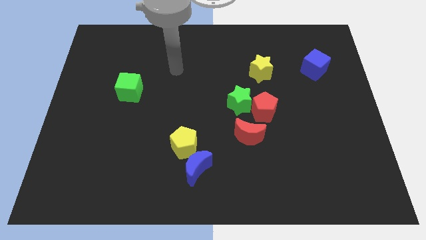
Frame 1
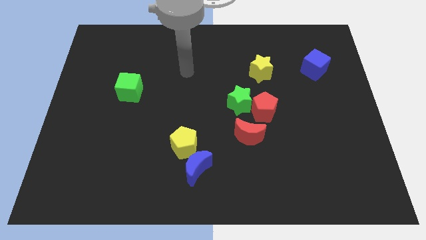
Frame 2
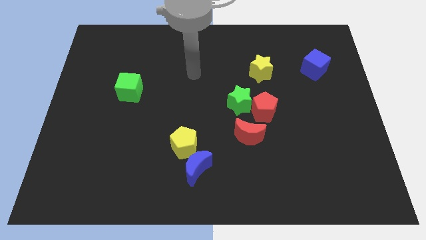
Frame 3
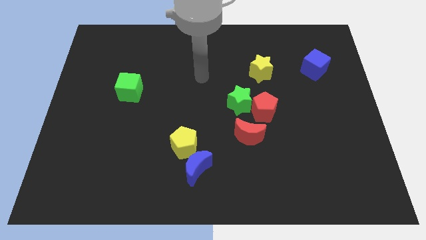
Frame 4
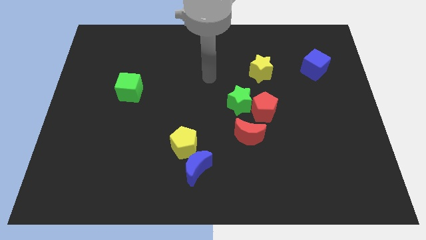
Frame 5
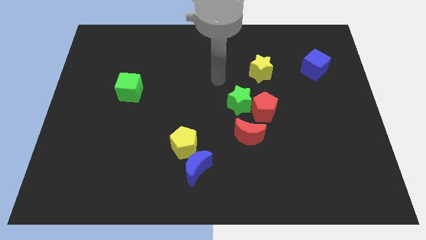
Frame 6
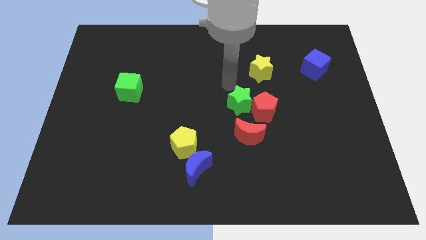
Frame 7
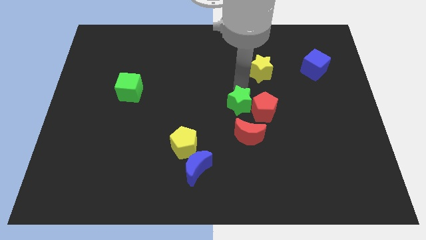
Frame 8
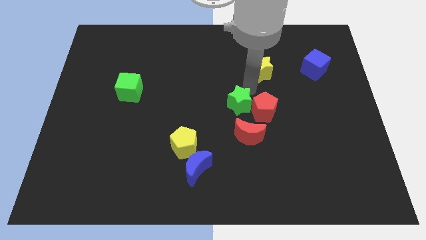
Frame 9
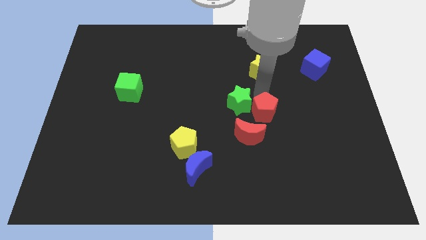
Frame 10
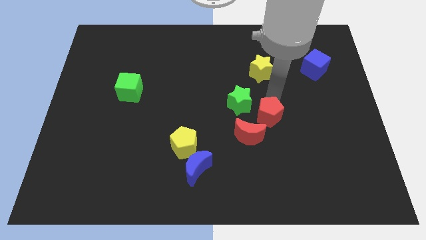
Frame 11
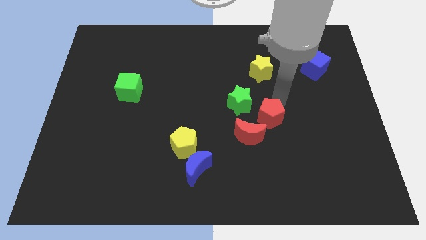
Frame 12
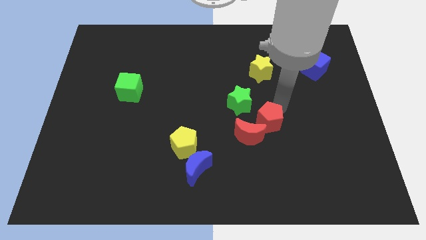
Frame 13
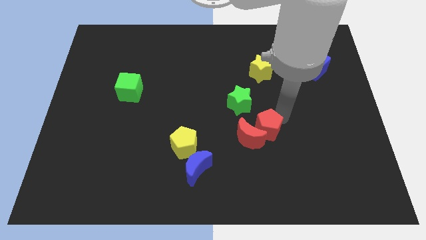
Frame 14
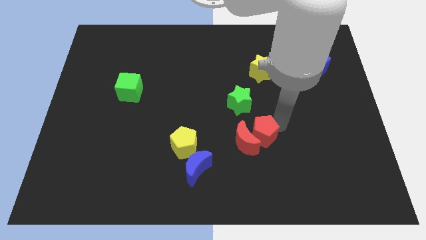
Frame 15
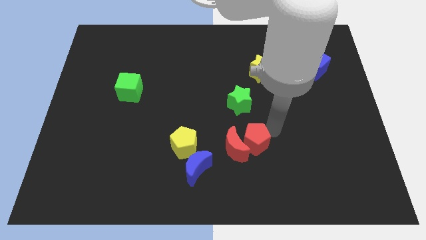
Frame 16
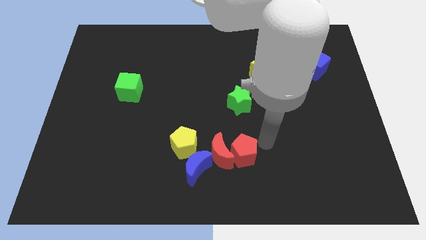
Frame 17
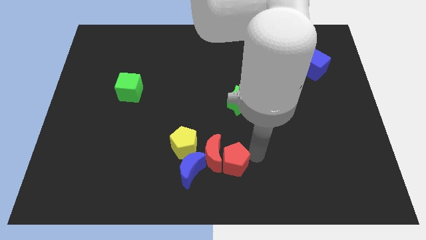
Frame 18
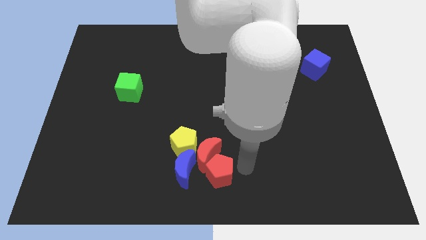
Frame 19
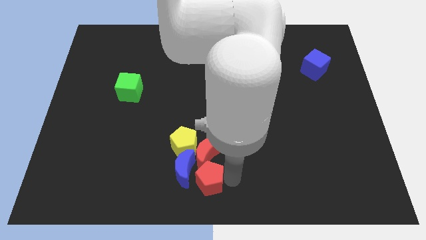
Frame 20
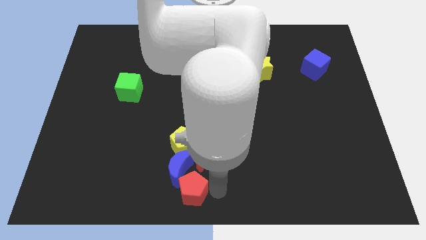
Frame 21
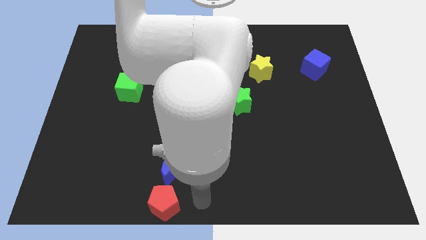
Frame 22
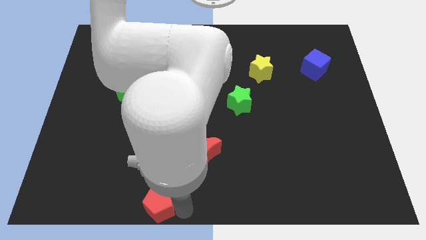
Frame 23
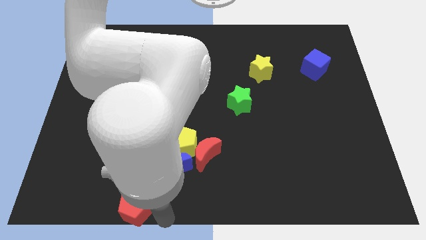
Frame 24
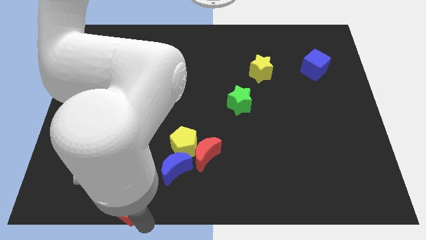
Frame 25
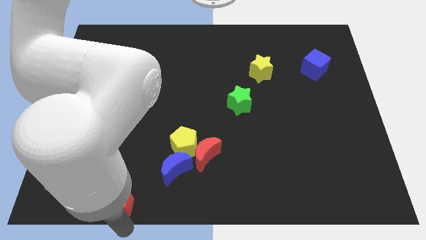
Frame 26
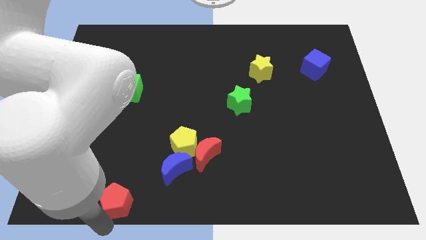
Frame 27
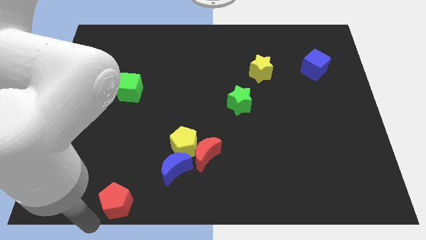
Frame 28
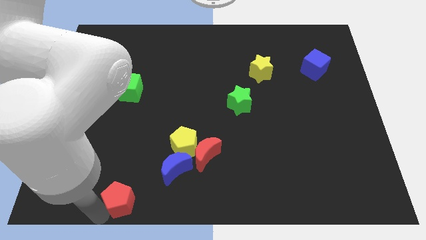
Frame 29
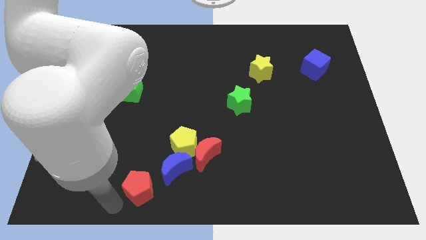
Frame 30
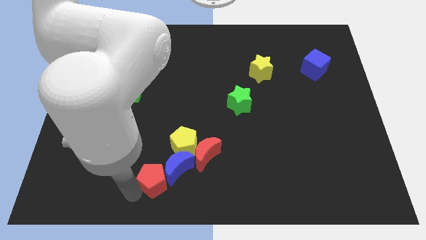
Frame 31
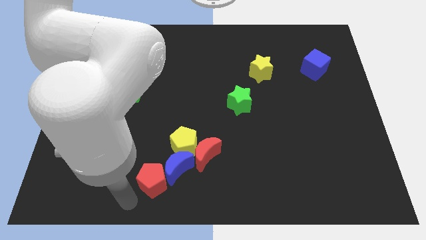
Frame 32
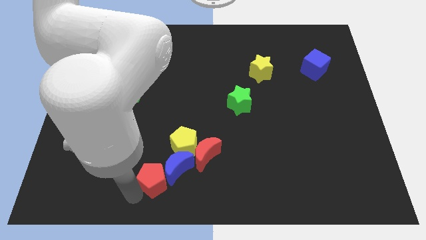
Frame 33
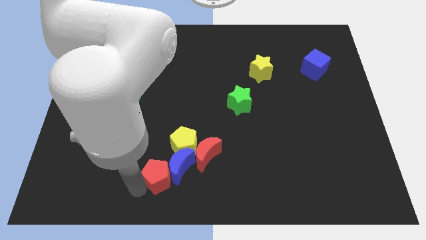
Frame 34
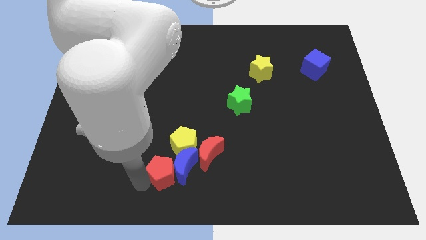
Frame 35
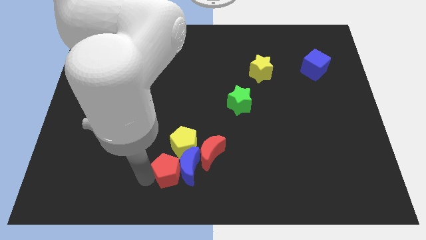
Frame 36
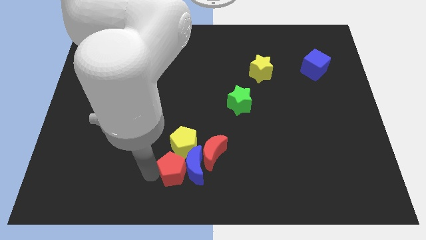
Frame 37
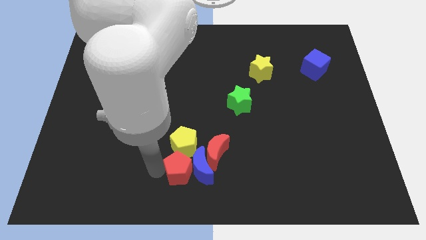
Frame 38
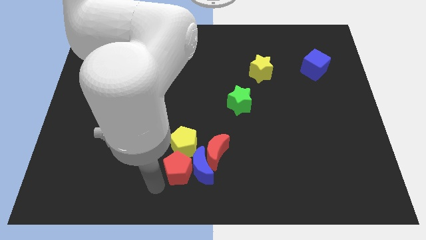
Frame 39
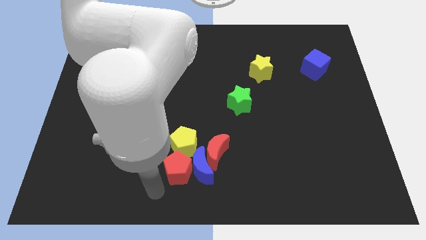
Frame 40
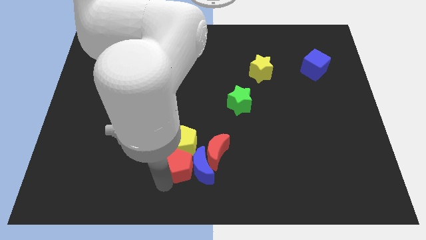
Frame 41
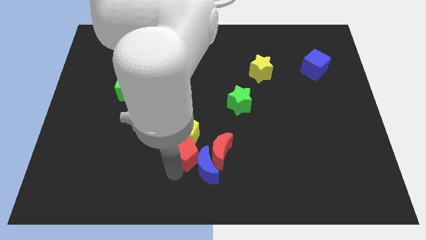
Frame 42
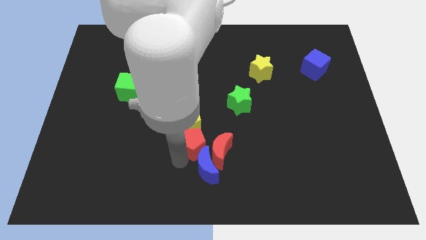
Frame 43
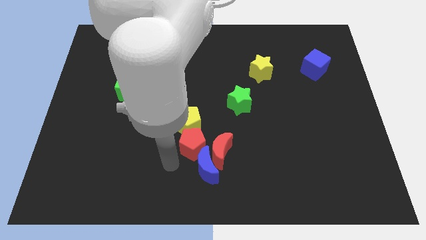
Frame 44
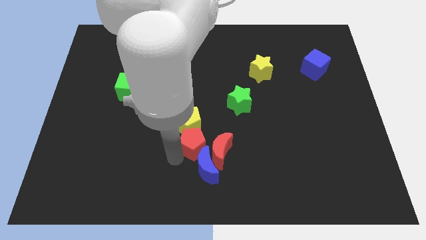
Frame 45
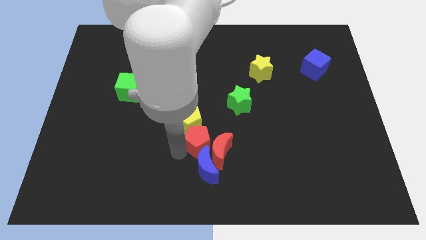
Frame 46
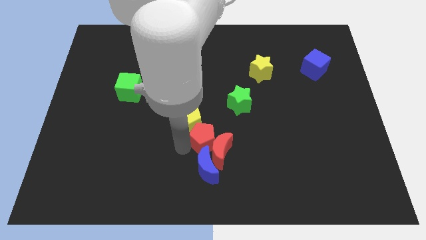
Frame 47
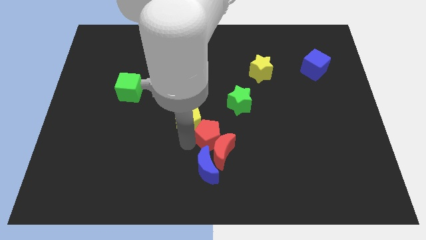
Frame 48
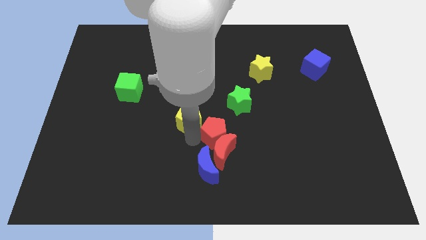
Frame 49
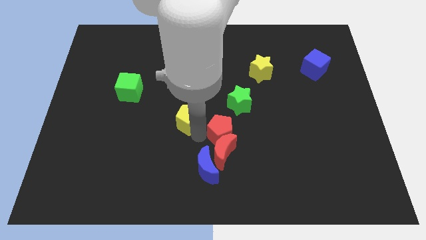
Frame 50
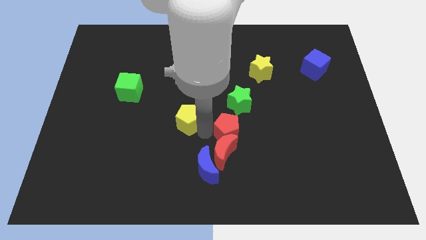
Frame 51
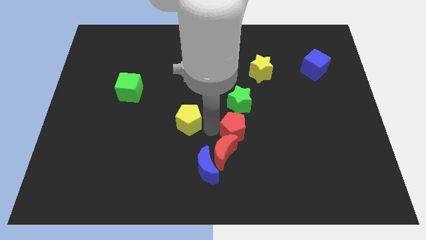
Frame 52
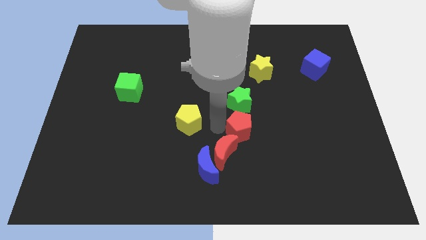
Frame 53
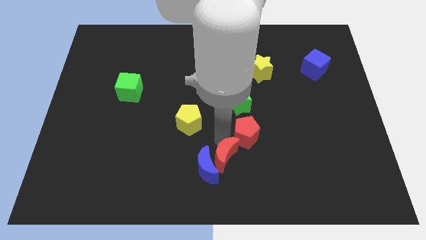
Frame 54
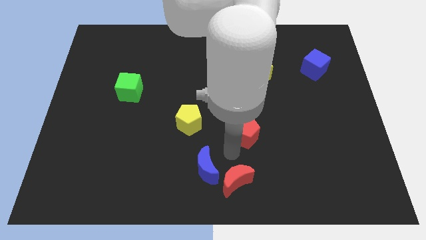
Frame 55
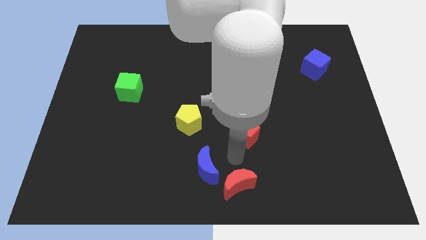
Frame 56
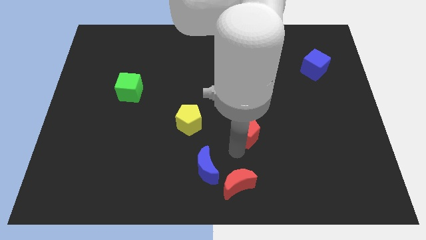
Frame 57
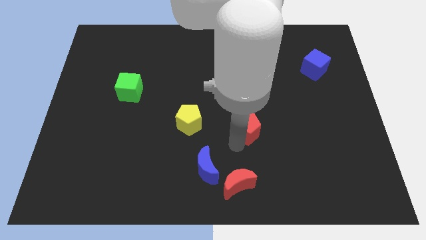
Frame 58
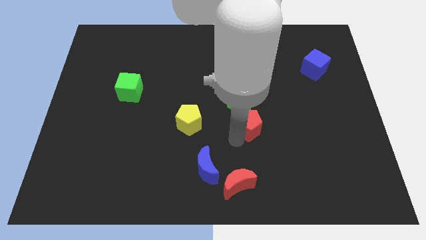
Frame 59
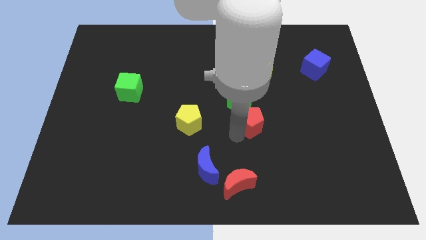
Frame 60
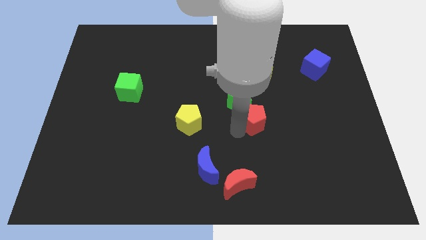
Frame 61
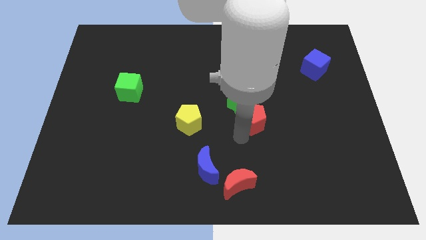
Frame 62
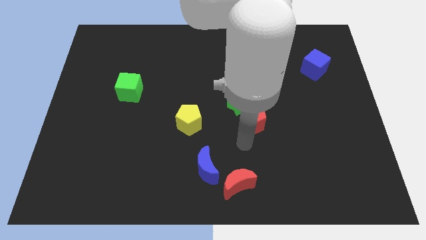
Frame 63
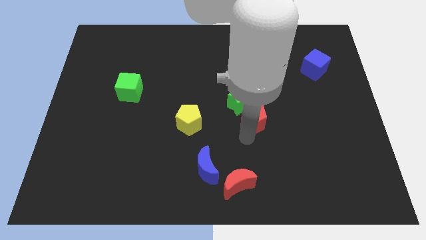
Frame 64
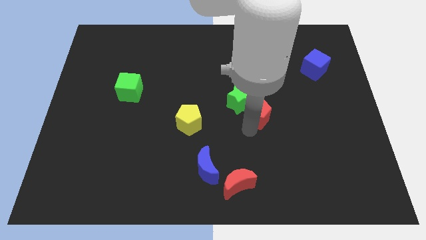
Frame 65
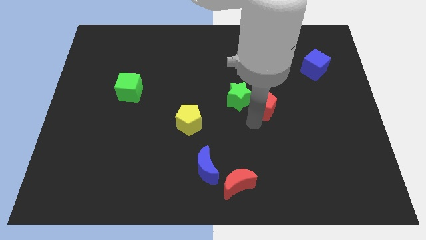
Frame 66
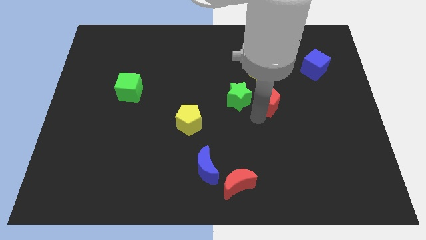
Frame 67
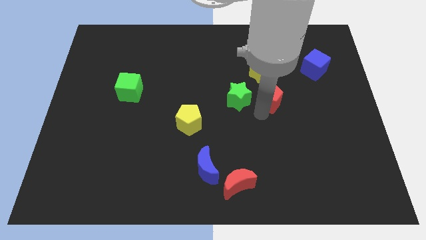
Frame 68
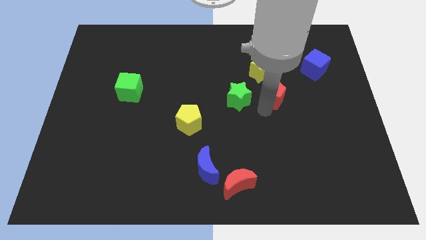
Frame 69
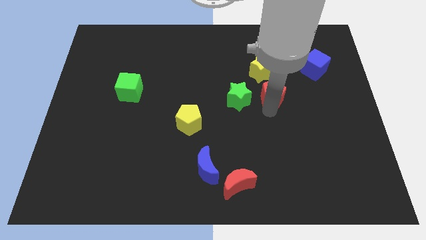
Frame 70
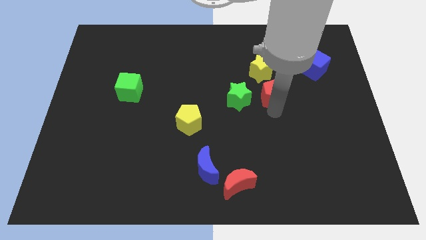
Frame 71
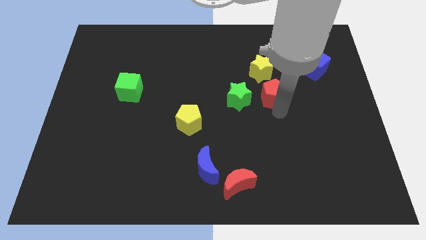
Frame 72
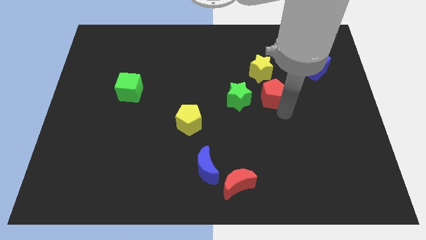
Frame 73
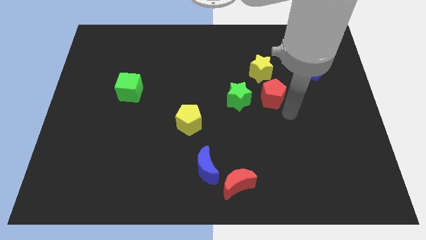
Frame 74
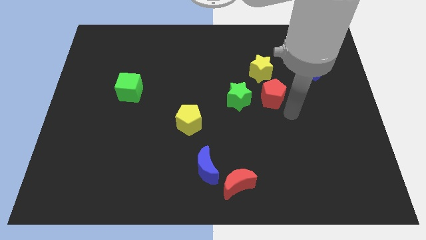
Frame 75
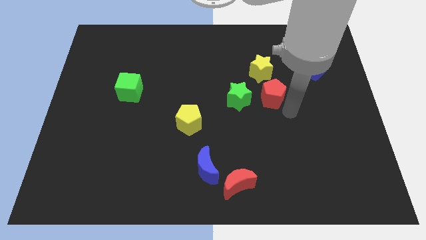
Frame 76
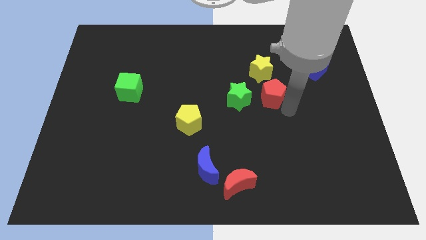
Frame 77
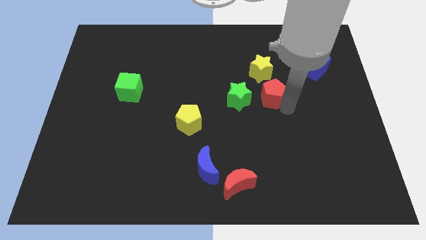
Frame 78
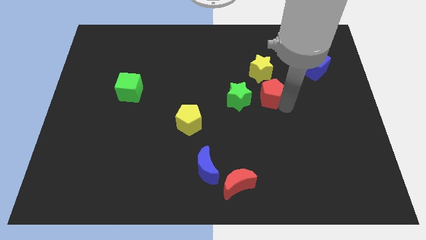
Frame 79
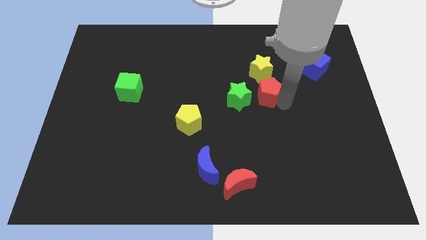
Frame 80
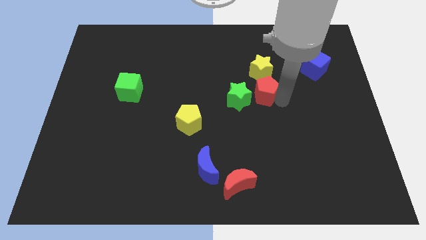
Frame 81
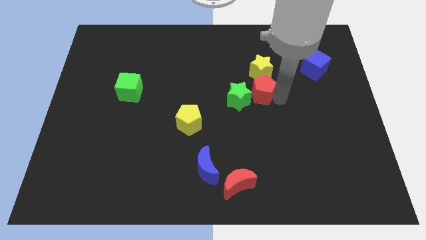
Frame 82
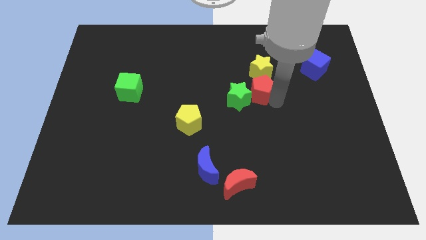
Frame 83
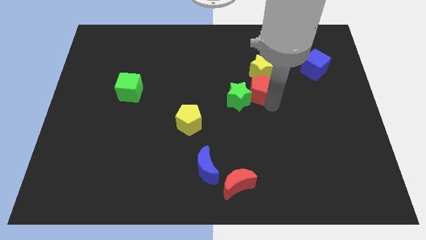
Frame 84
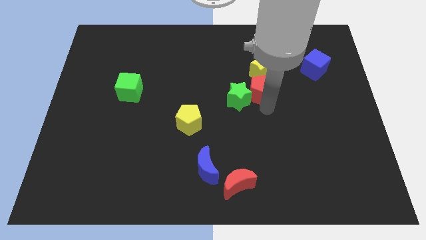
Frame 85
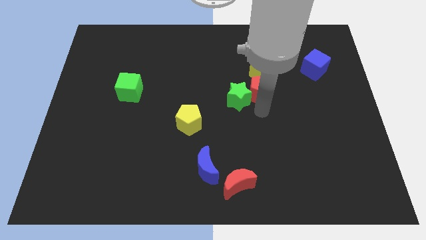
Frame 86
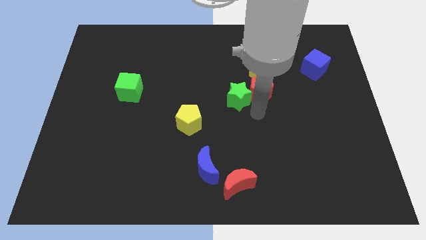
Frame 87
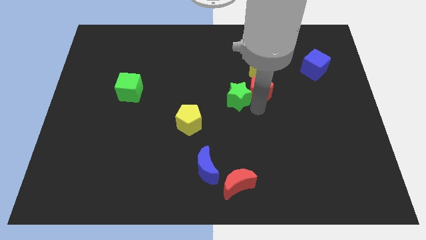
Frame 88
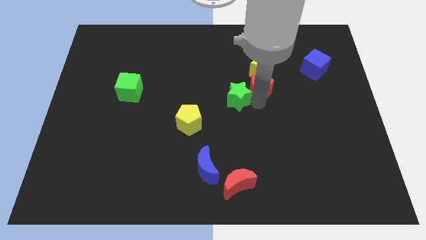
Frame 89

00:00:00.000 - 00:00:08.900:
put the red pentagon to the yellow star
